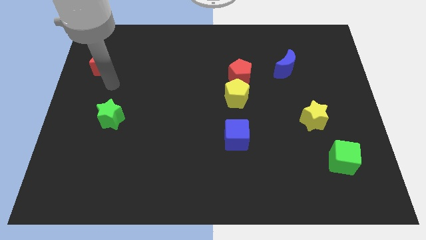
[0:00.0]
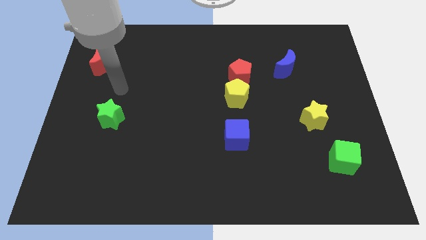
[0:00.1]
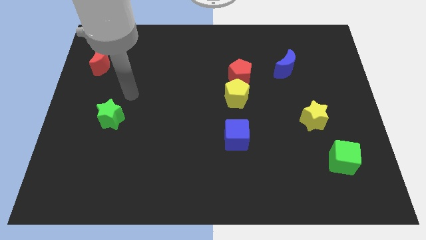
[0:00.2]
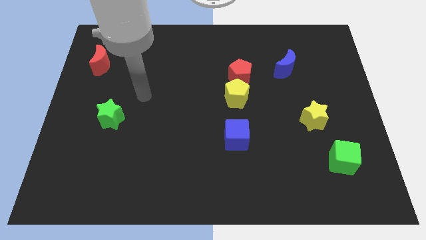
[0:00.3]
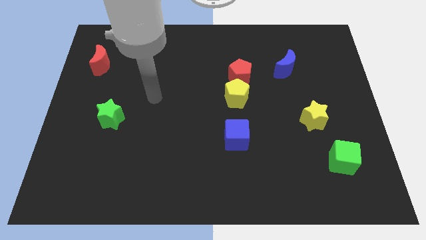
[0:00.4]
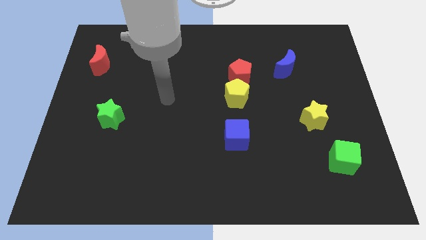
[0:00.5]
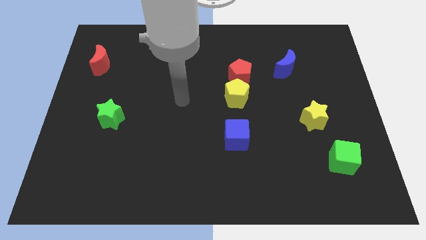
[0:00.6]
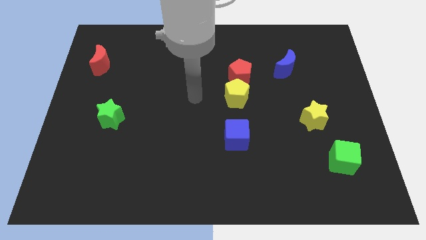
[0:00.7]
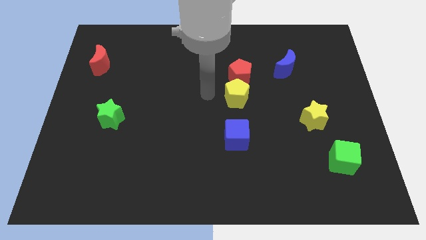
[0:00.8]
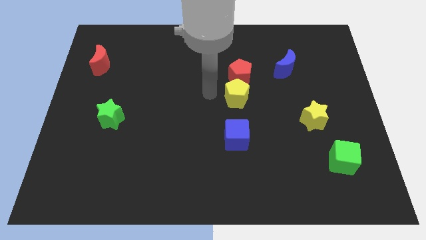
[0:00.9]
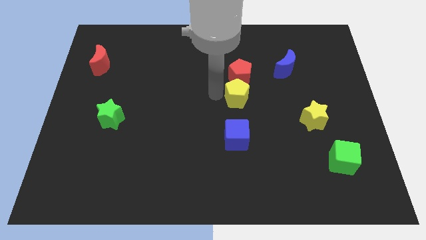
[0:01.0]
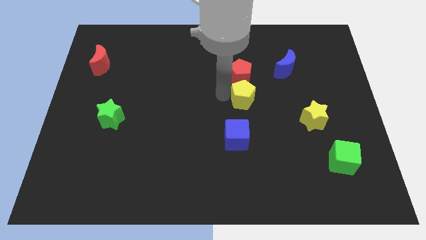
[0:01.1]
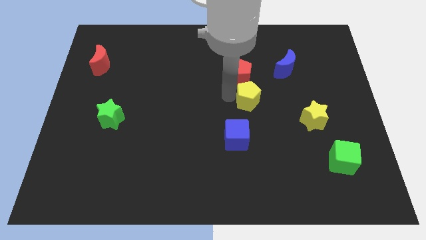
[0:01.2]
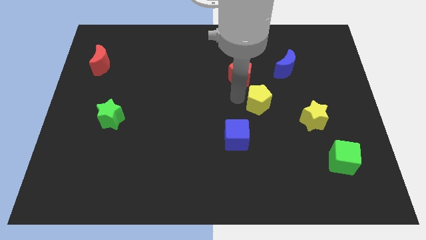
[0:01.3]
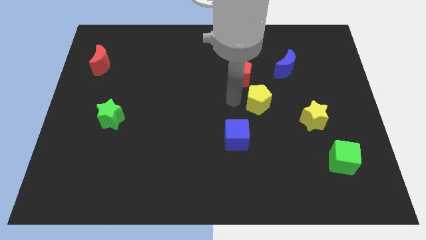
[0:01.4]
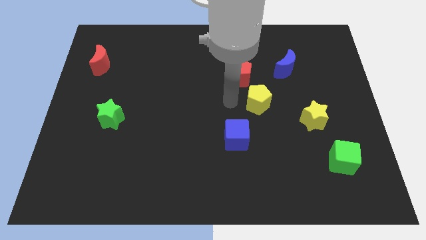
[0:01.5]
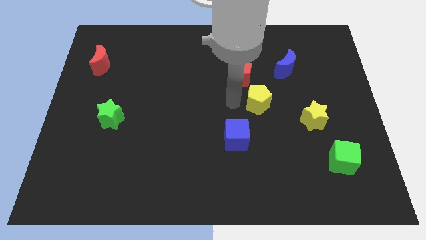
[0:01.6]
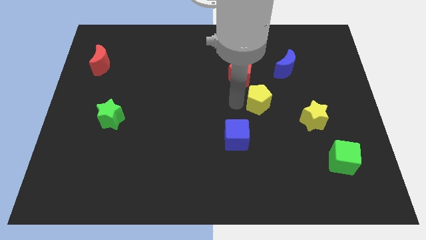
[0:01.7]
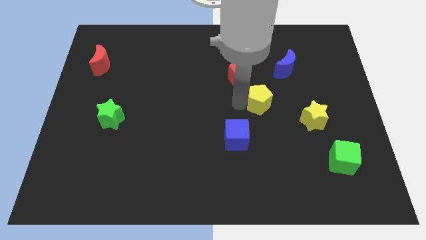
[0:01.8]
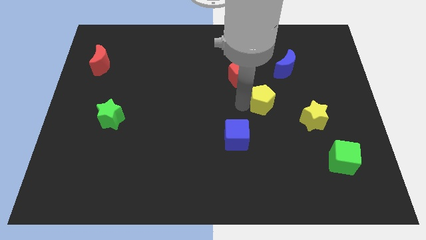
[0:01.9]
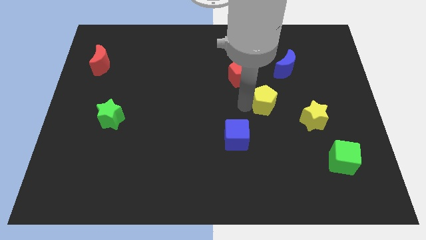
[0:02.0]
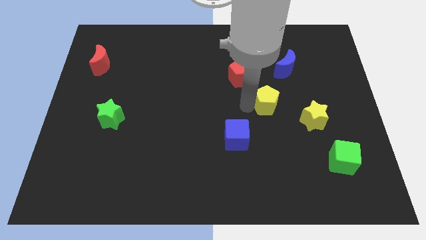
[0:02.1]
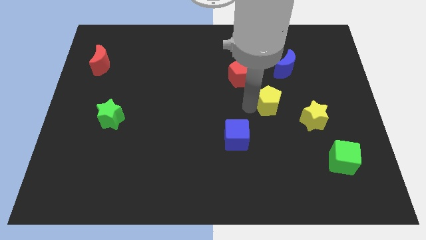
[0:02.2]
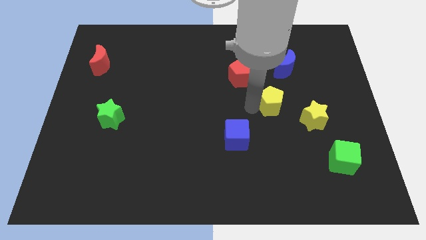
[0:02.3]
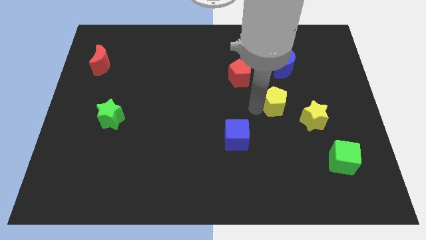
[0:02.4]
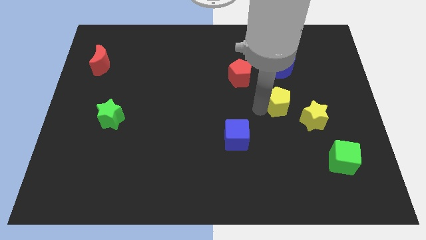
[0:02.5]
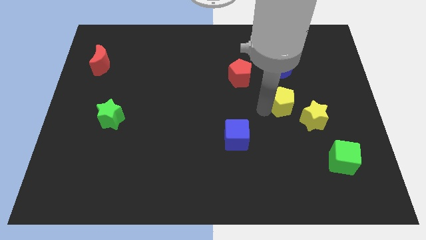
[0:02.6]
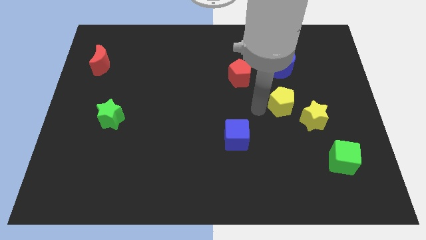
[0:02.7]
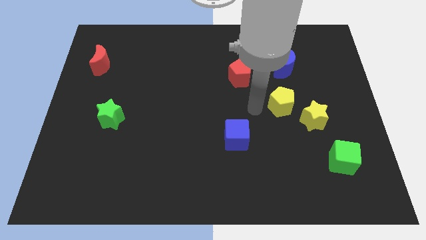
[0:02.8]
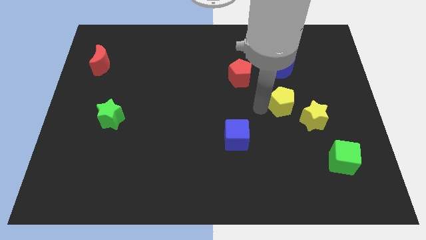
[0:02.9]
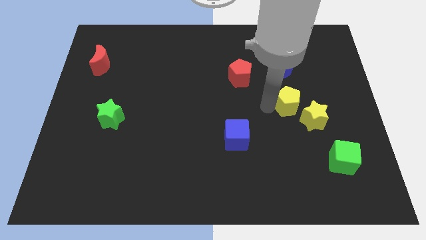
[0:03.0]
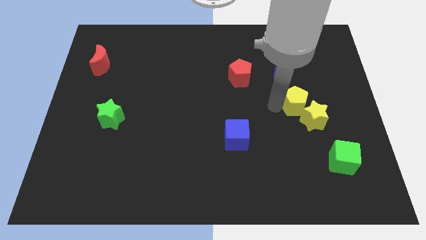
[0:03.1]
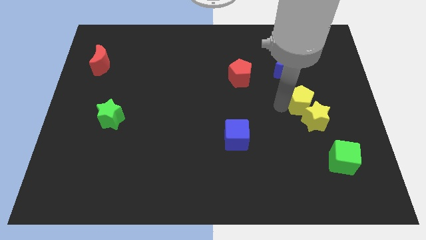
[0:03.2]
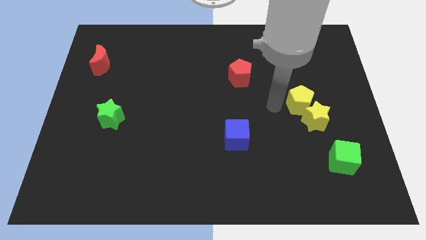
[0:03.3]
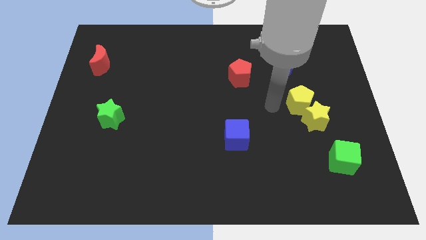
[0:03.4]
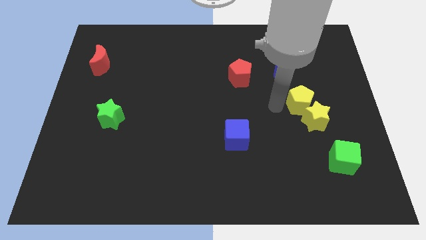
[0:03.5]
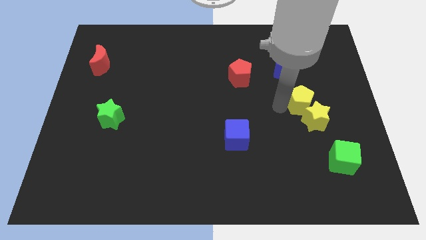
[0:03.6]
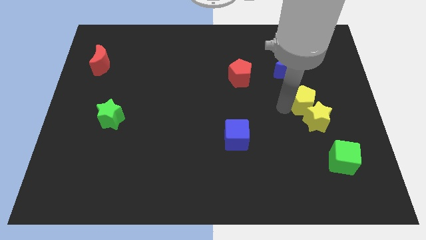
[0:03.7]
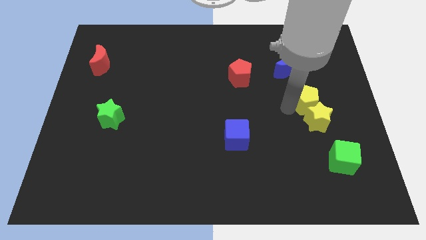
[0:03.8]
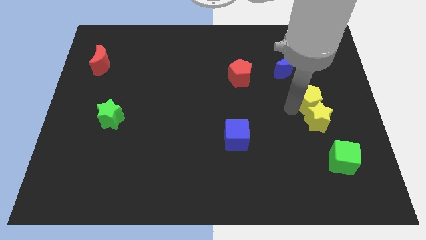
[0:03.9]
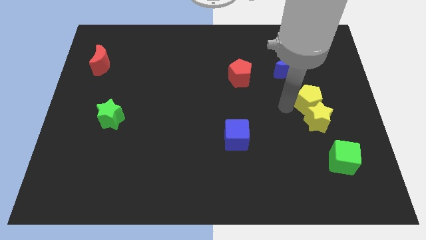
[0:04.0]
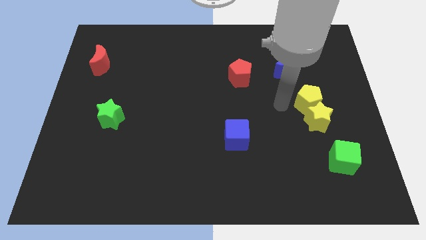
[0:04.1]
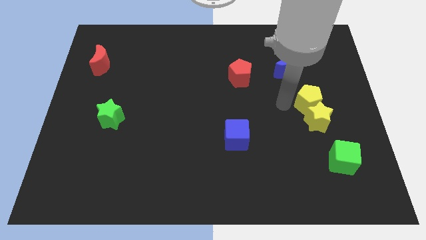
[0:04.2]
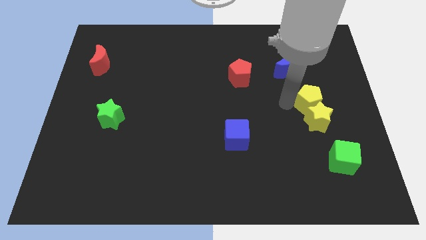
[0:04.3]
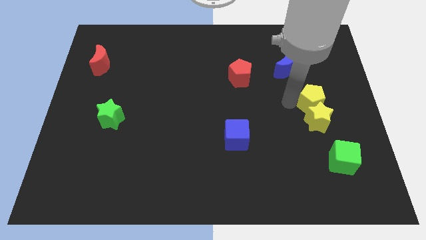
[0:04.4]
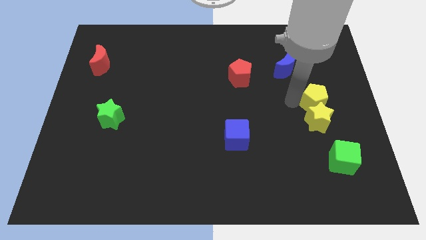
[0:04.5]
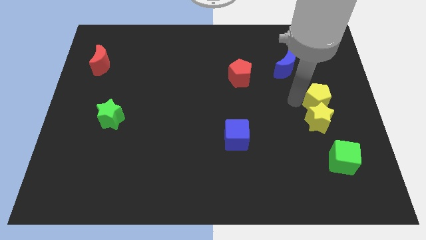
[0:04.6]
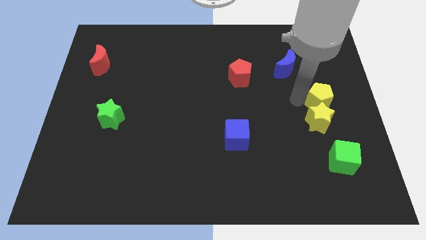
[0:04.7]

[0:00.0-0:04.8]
slide the yellow pentagon to the right side of the board

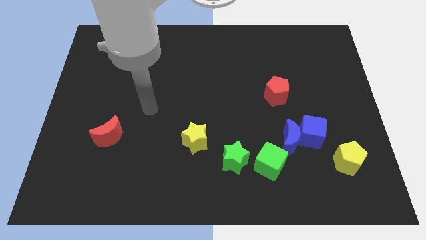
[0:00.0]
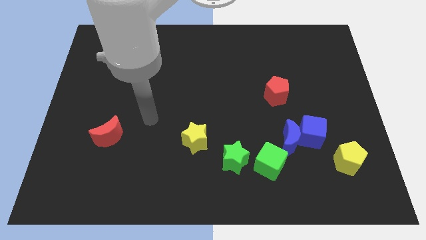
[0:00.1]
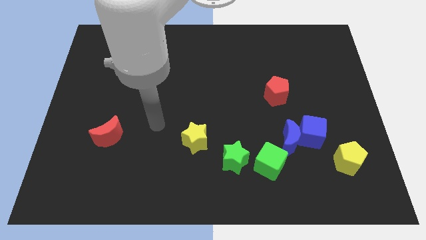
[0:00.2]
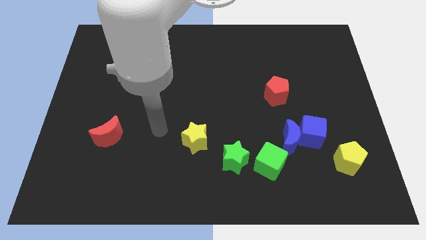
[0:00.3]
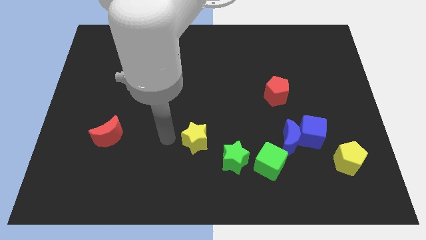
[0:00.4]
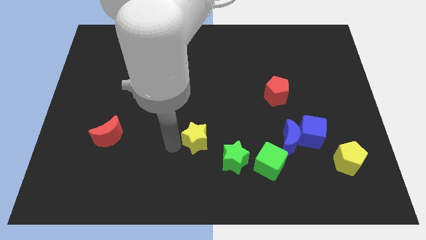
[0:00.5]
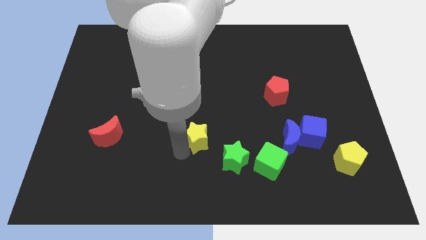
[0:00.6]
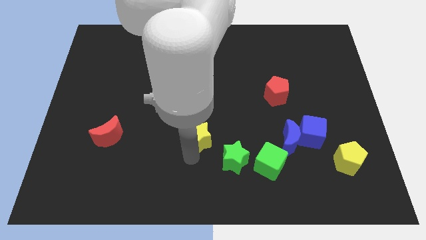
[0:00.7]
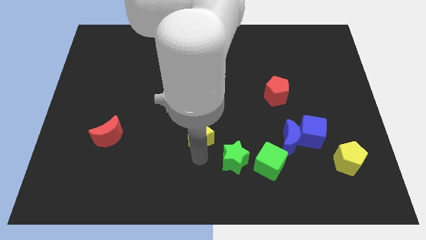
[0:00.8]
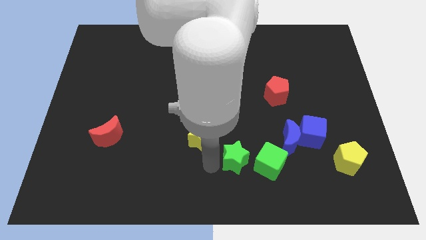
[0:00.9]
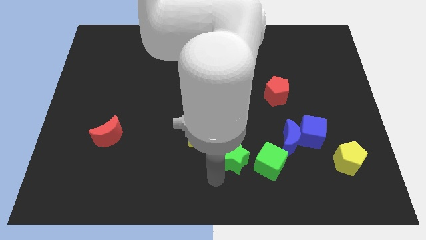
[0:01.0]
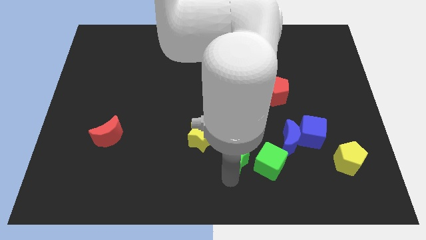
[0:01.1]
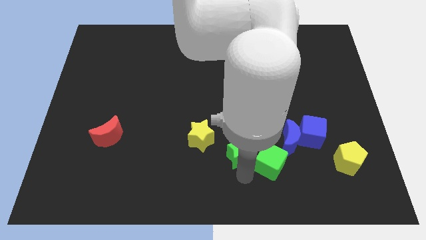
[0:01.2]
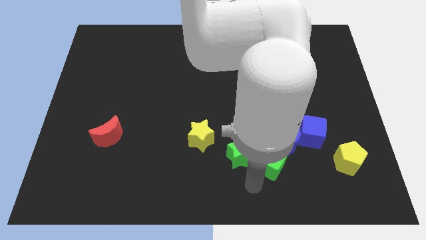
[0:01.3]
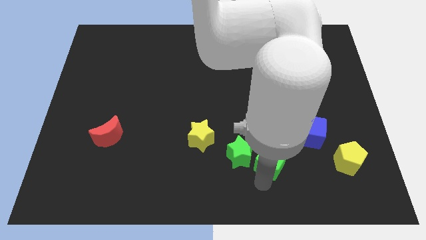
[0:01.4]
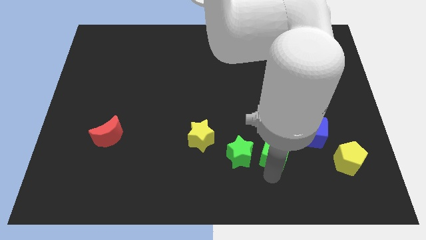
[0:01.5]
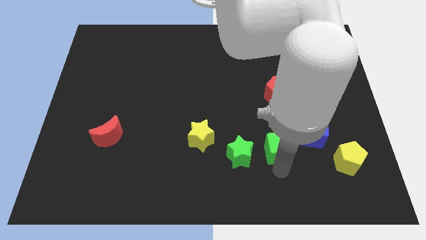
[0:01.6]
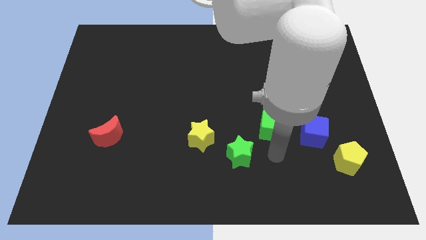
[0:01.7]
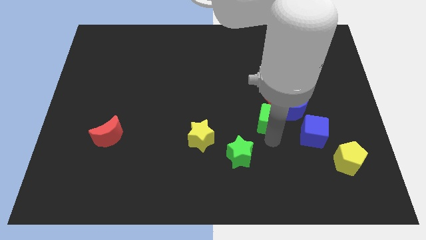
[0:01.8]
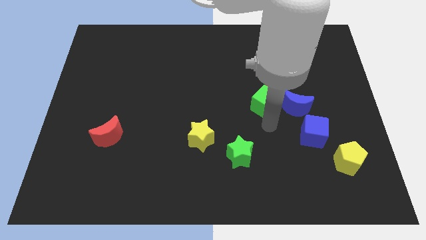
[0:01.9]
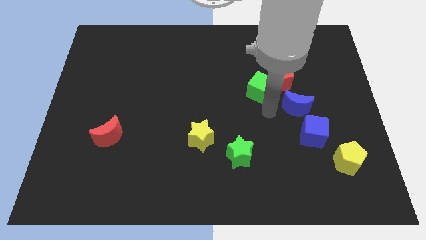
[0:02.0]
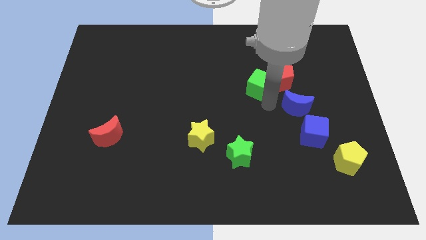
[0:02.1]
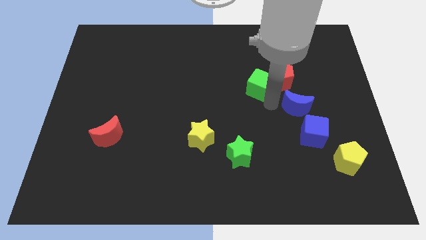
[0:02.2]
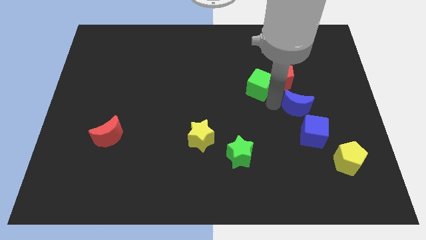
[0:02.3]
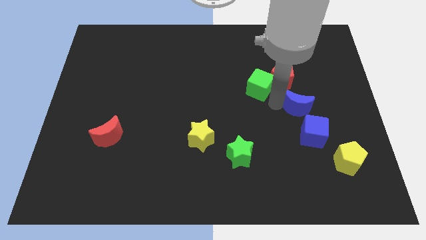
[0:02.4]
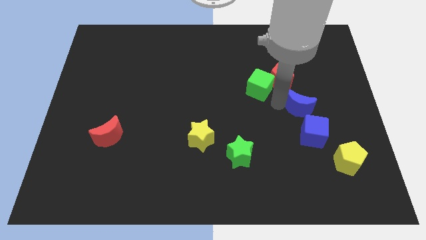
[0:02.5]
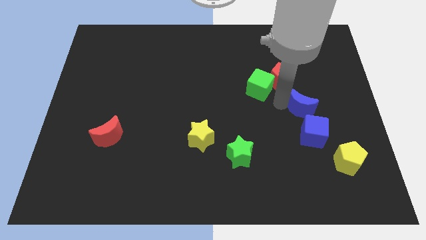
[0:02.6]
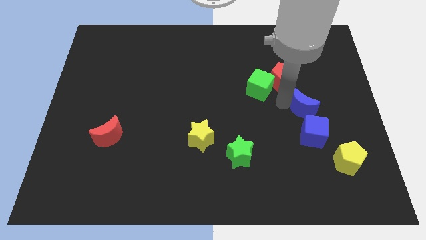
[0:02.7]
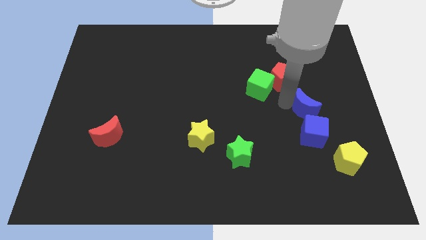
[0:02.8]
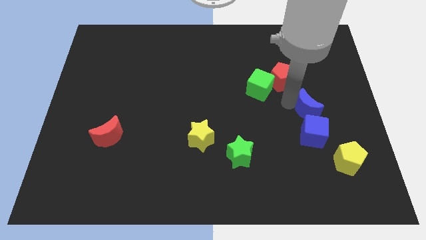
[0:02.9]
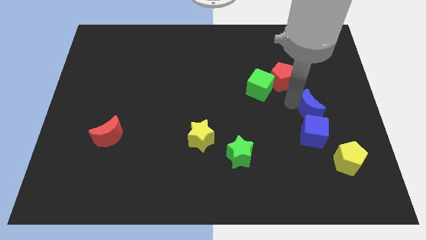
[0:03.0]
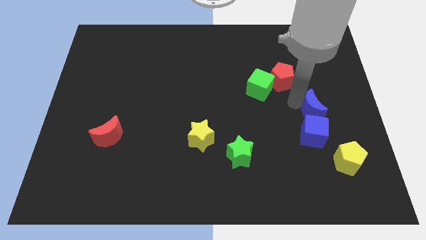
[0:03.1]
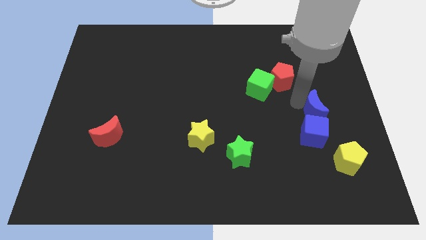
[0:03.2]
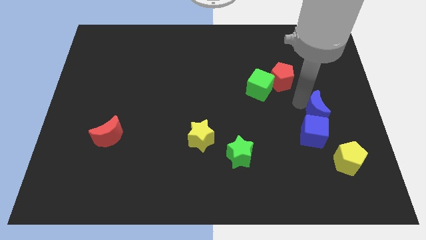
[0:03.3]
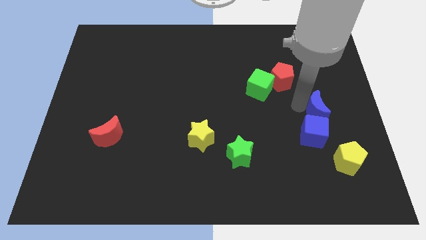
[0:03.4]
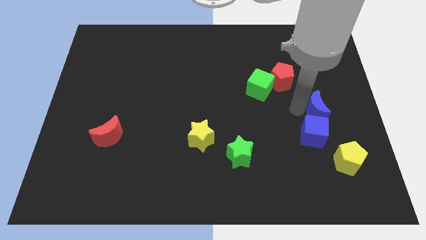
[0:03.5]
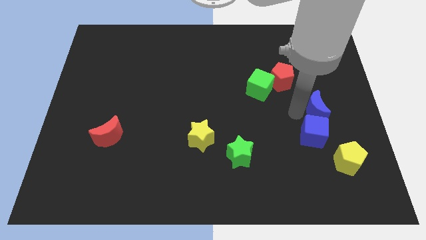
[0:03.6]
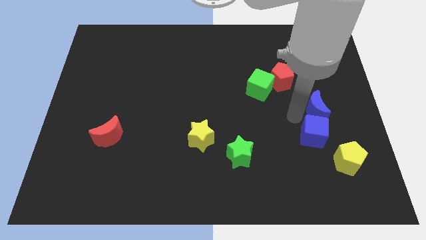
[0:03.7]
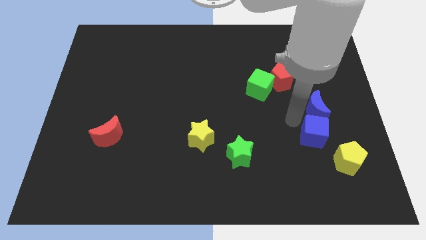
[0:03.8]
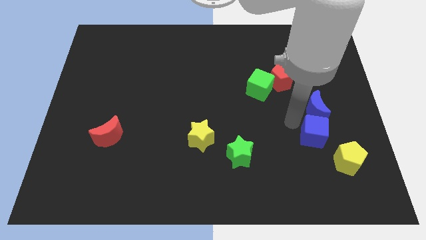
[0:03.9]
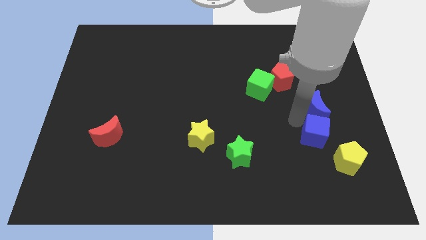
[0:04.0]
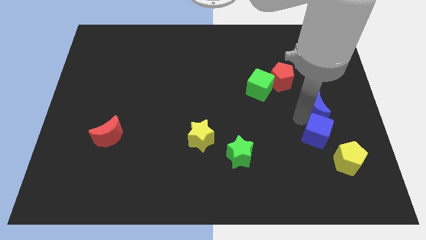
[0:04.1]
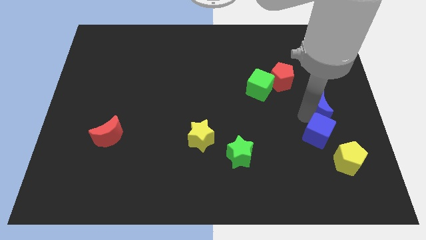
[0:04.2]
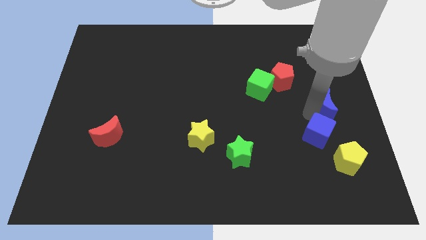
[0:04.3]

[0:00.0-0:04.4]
put the blue moon to the right side of the board
